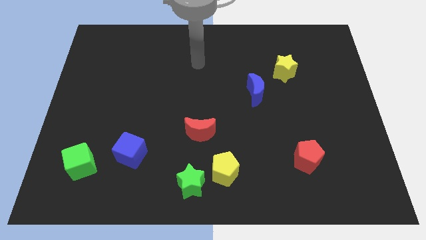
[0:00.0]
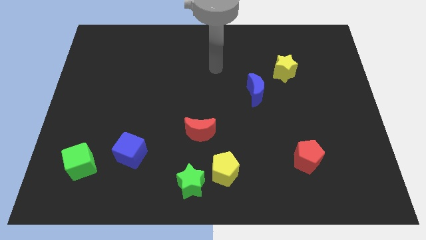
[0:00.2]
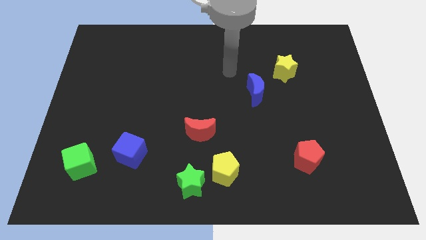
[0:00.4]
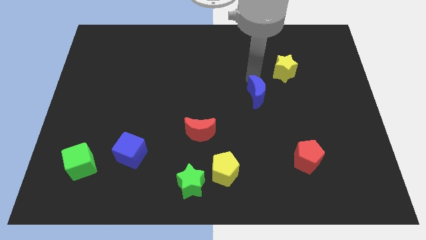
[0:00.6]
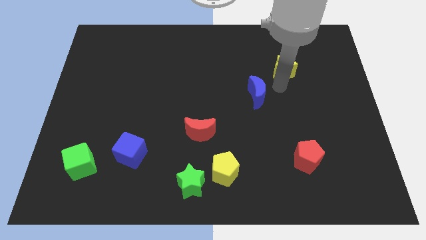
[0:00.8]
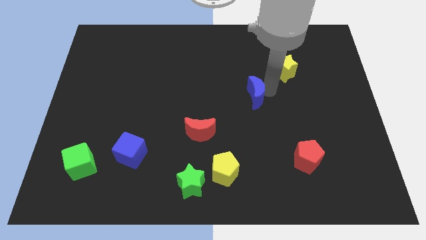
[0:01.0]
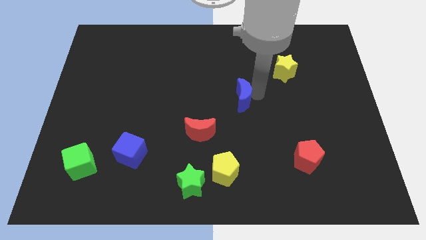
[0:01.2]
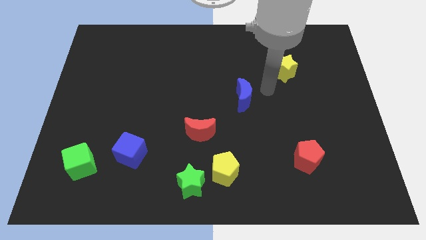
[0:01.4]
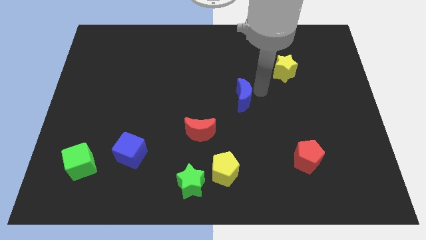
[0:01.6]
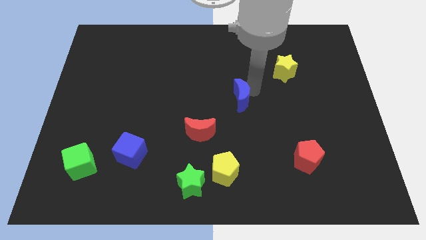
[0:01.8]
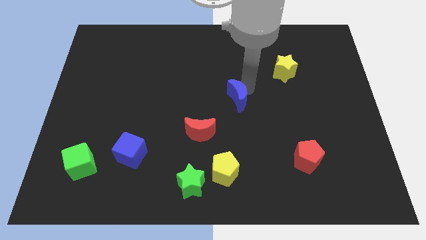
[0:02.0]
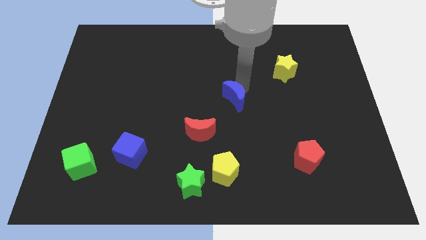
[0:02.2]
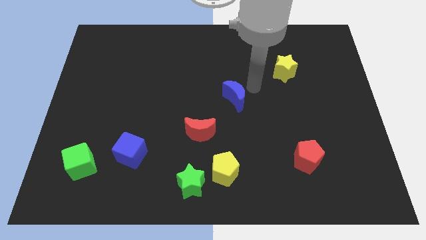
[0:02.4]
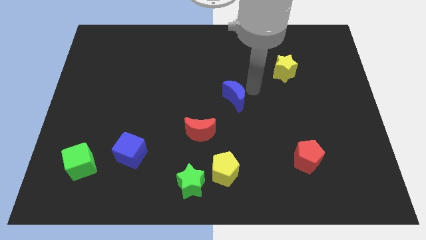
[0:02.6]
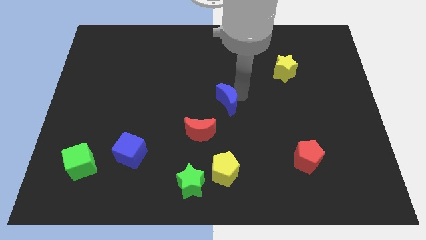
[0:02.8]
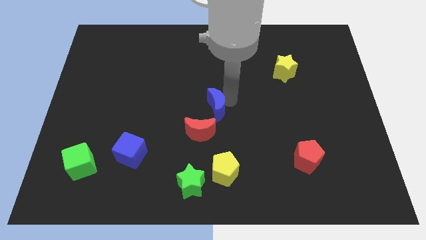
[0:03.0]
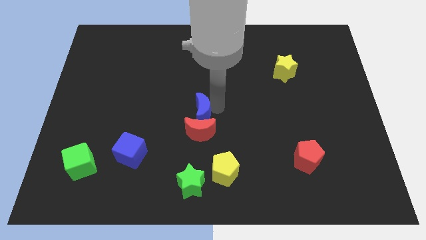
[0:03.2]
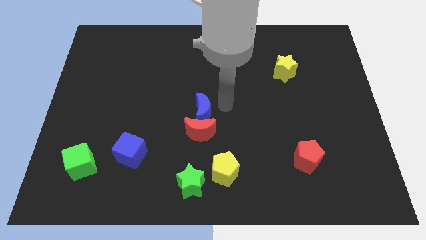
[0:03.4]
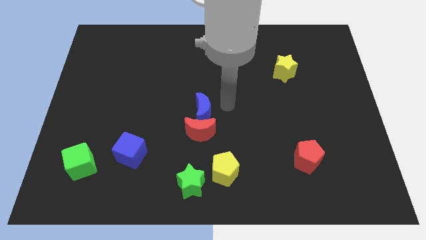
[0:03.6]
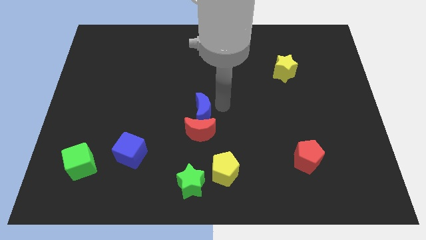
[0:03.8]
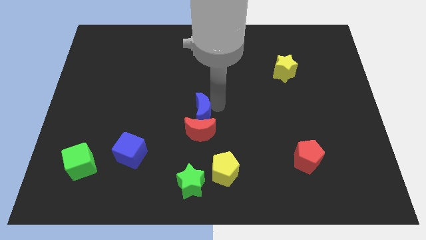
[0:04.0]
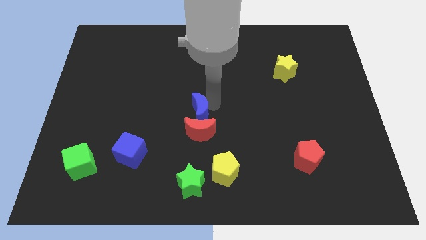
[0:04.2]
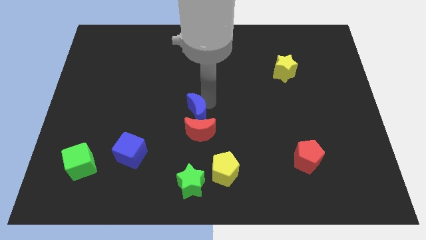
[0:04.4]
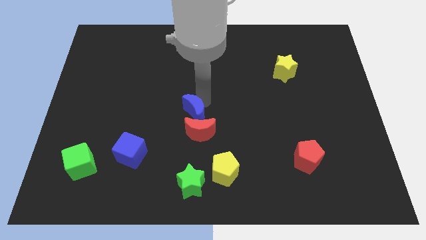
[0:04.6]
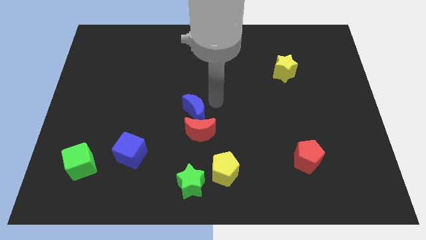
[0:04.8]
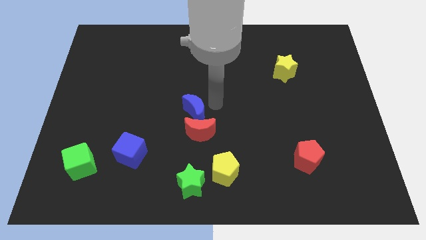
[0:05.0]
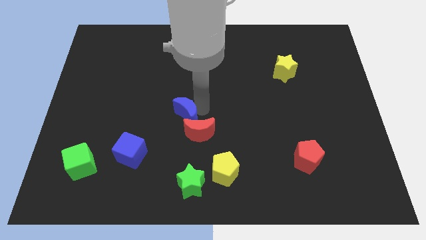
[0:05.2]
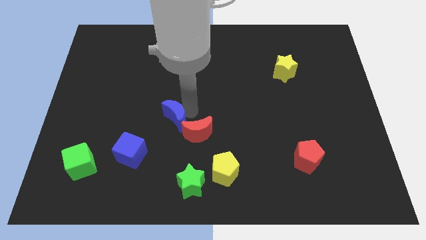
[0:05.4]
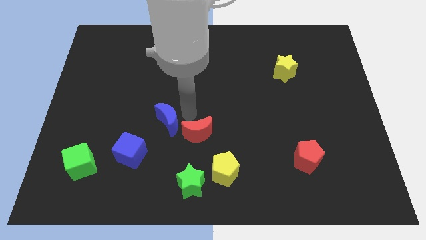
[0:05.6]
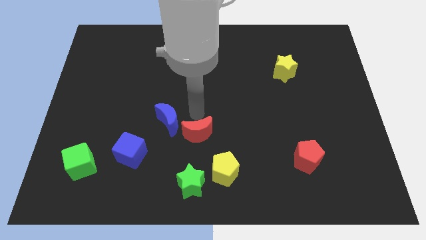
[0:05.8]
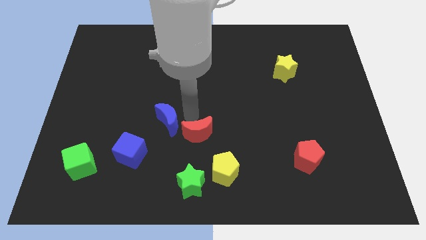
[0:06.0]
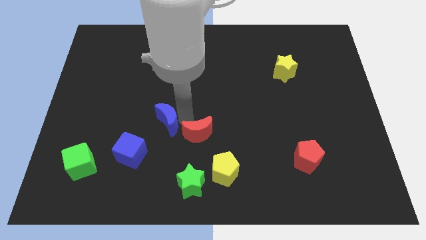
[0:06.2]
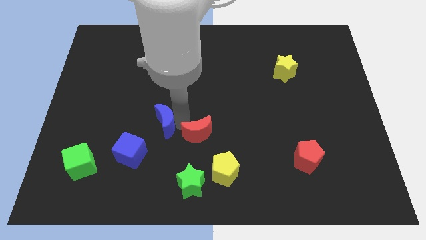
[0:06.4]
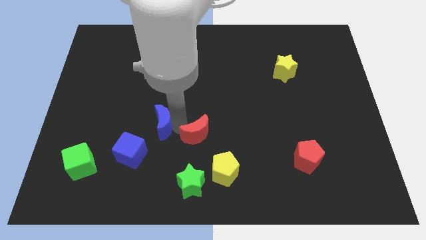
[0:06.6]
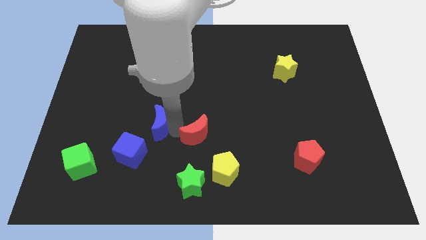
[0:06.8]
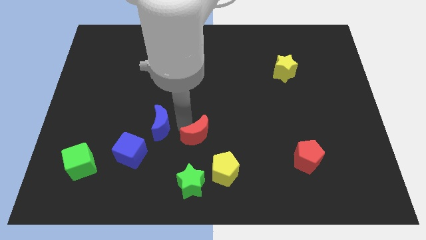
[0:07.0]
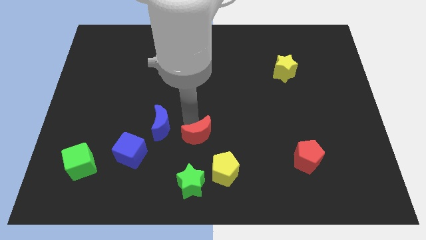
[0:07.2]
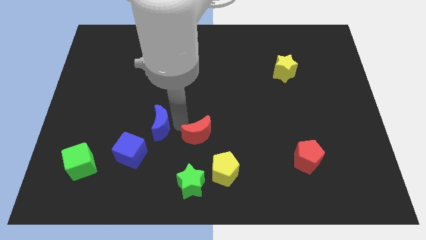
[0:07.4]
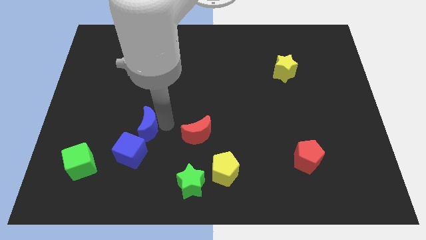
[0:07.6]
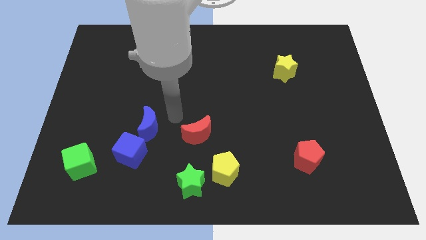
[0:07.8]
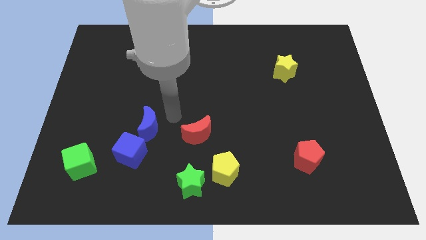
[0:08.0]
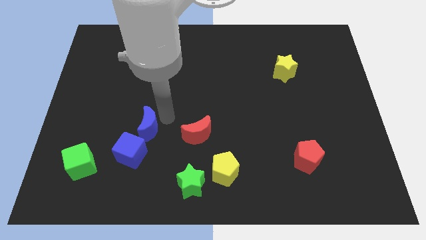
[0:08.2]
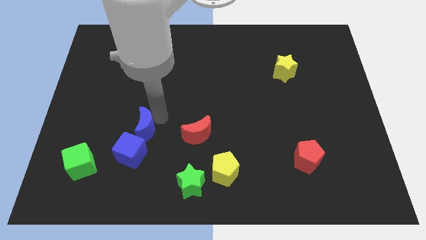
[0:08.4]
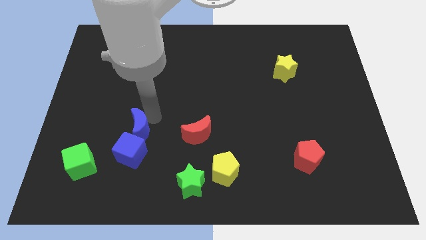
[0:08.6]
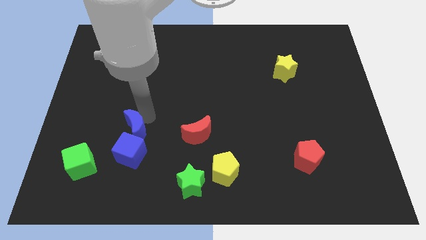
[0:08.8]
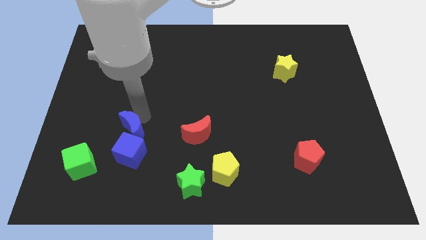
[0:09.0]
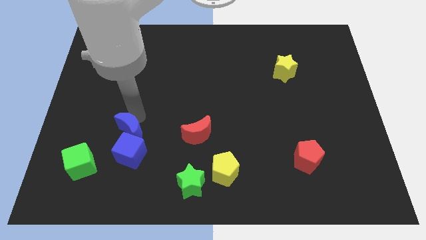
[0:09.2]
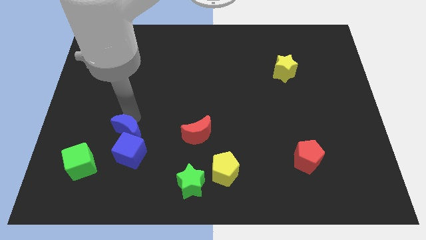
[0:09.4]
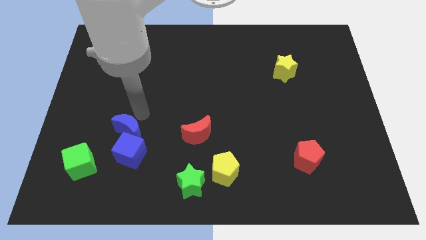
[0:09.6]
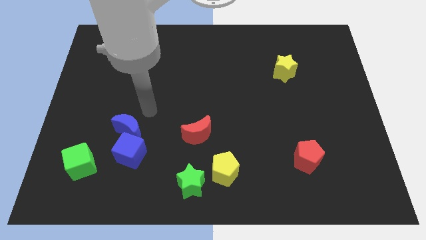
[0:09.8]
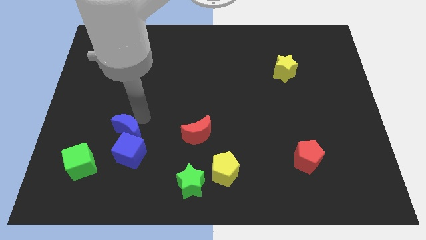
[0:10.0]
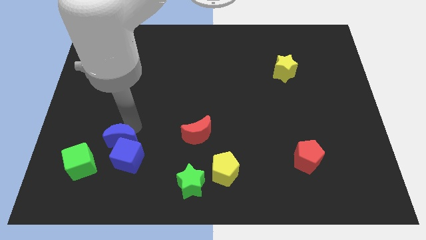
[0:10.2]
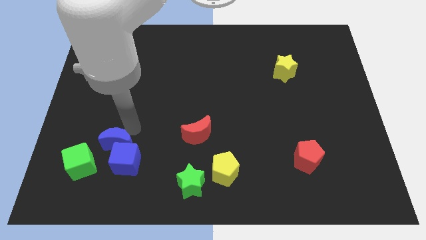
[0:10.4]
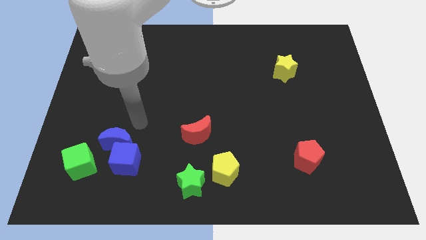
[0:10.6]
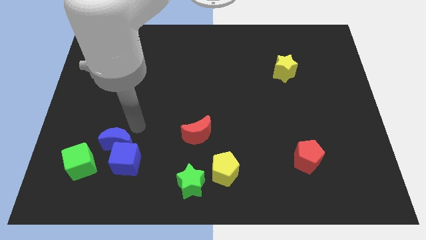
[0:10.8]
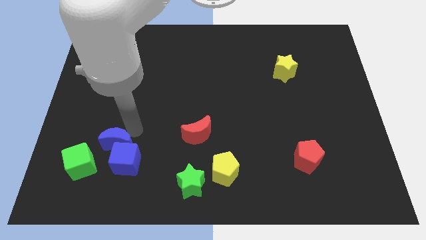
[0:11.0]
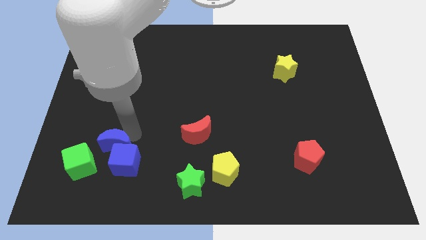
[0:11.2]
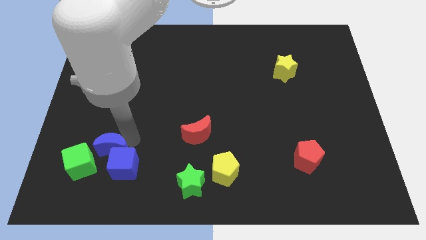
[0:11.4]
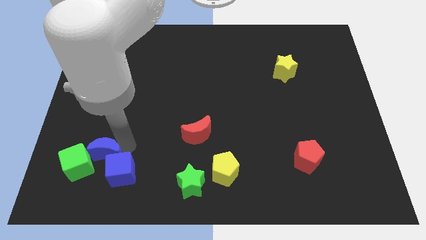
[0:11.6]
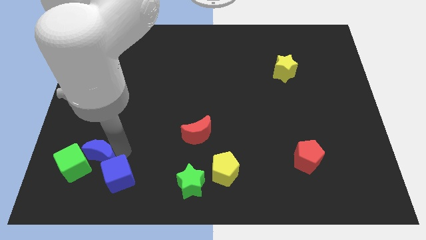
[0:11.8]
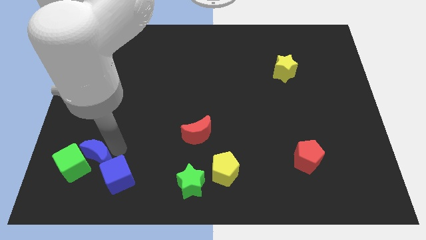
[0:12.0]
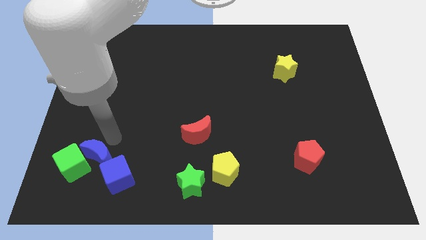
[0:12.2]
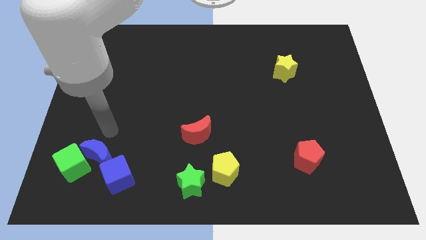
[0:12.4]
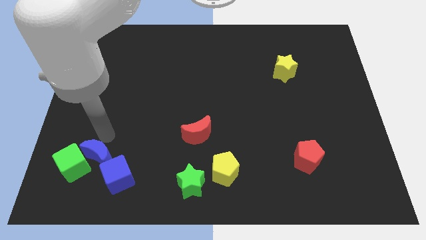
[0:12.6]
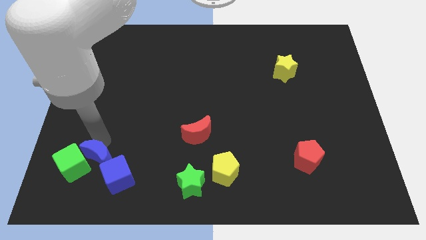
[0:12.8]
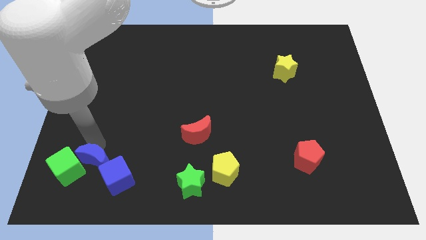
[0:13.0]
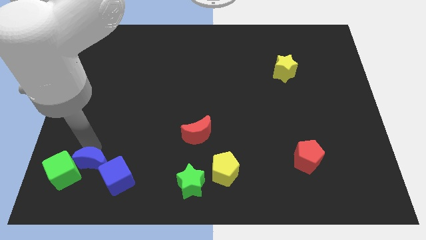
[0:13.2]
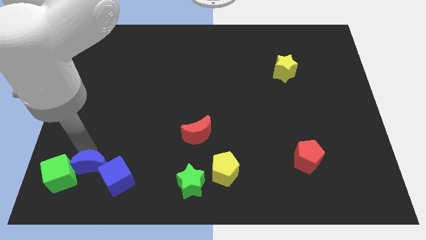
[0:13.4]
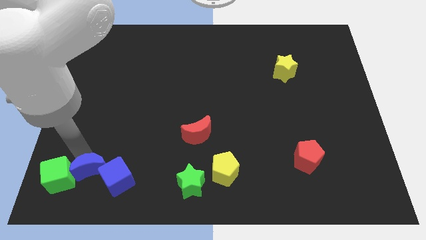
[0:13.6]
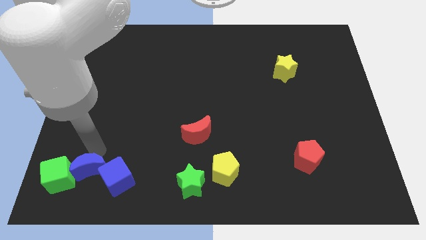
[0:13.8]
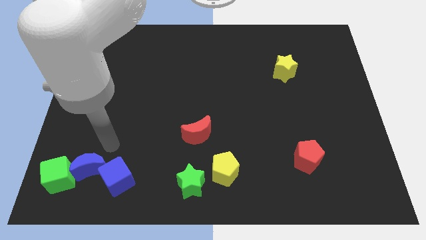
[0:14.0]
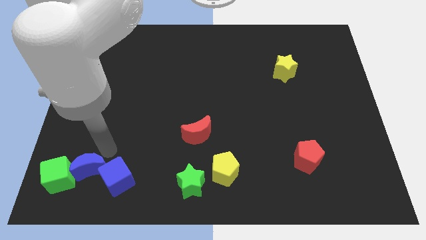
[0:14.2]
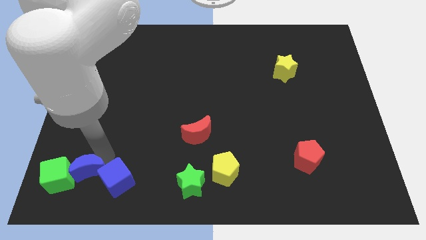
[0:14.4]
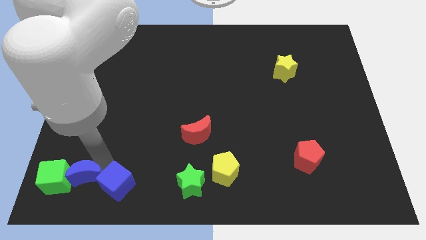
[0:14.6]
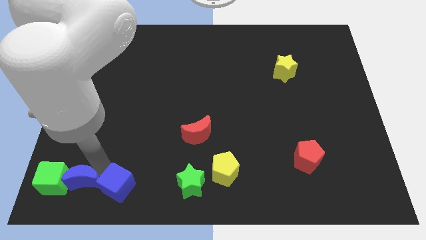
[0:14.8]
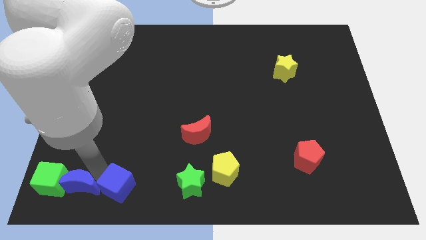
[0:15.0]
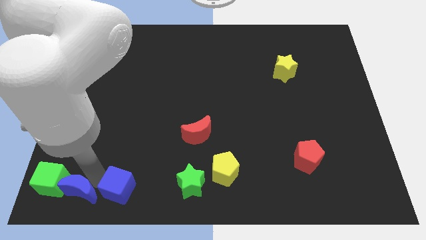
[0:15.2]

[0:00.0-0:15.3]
move the blue moon to the bottom left of the board
